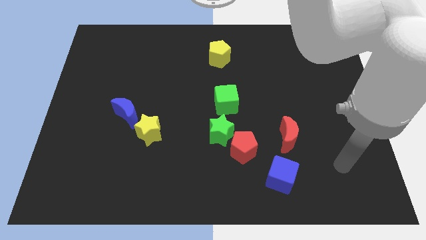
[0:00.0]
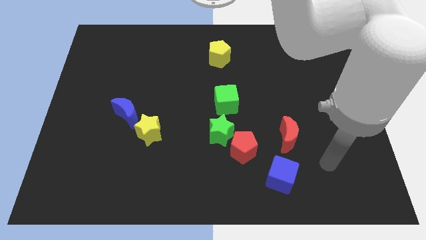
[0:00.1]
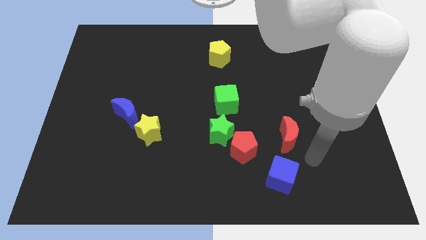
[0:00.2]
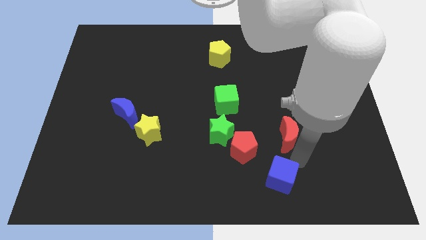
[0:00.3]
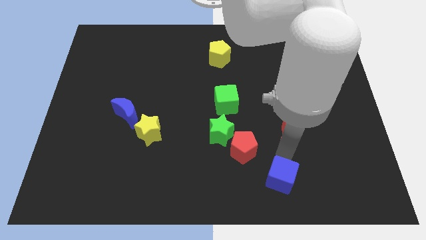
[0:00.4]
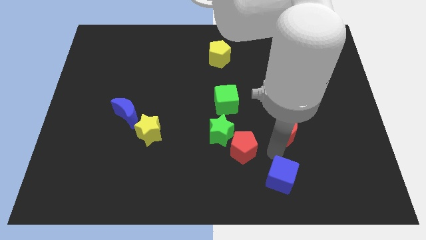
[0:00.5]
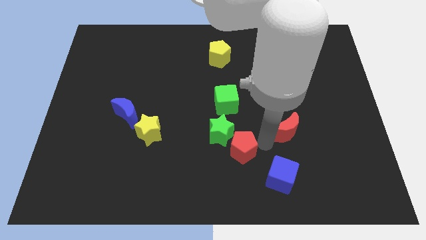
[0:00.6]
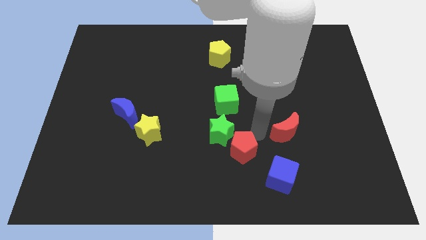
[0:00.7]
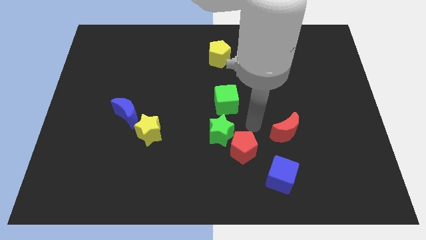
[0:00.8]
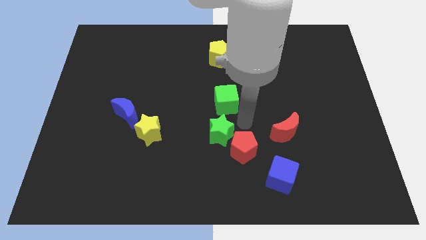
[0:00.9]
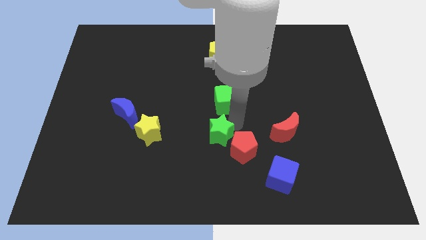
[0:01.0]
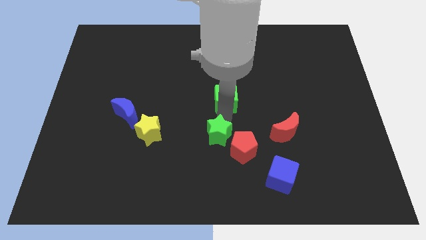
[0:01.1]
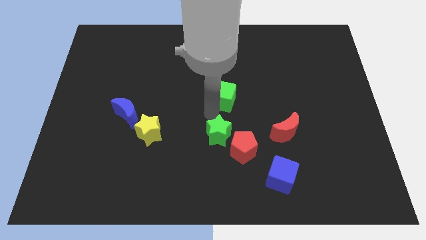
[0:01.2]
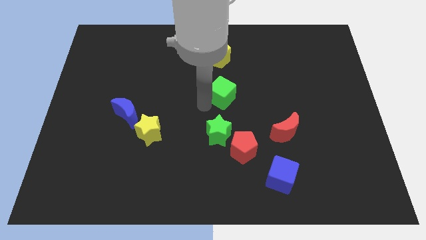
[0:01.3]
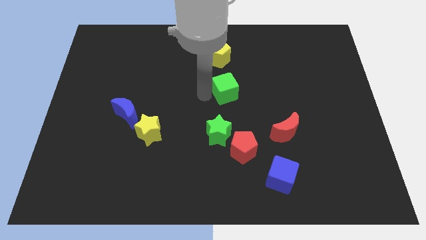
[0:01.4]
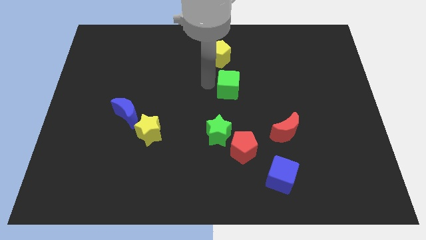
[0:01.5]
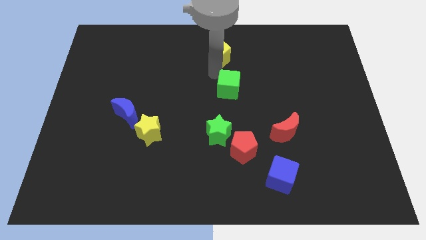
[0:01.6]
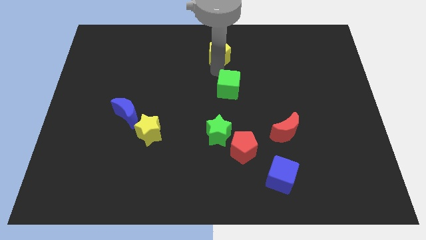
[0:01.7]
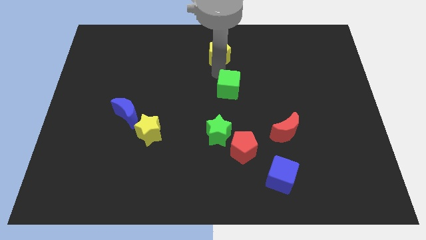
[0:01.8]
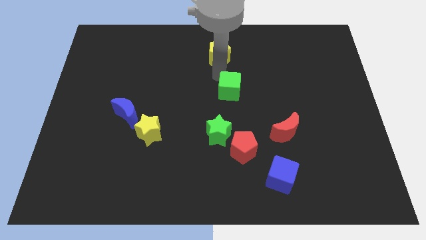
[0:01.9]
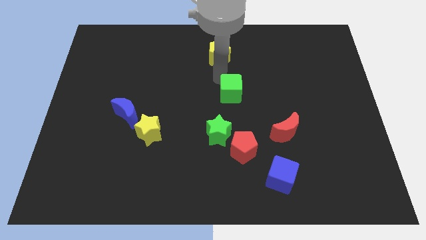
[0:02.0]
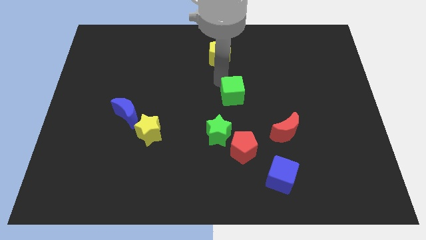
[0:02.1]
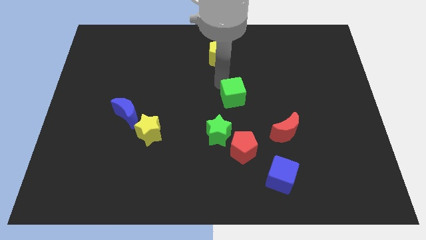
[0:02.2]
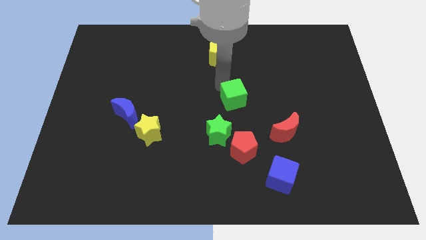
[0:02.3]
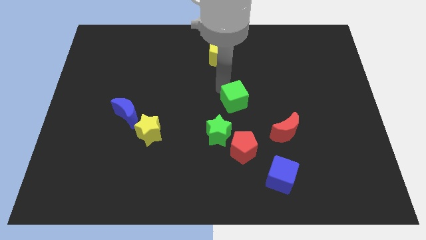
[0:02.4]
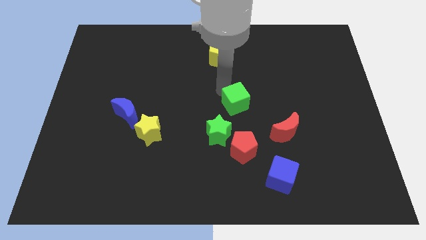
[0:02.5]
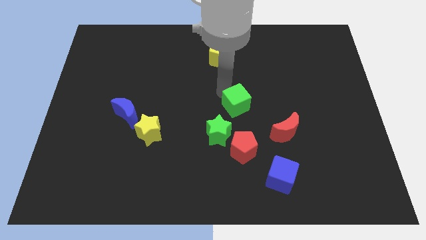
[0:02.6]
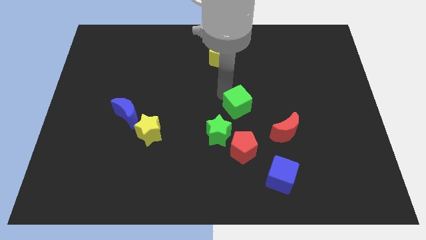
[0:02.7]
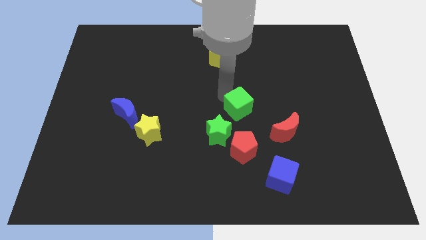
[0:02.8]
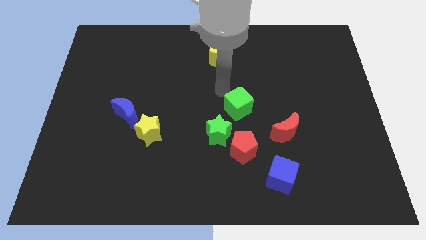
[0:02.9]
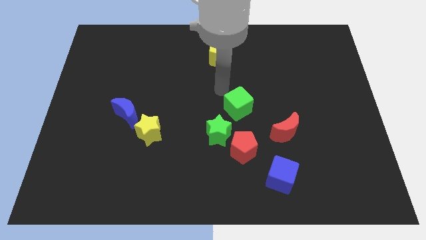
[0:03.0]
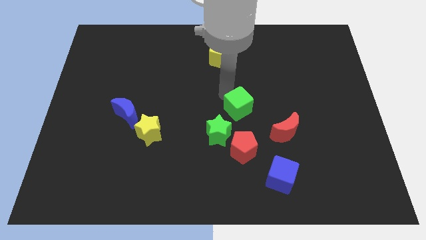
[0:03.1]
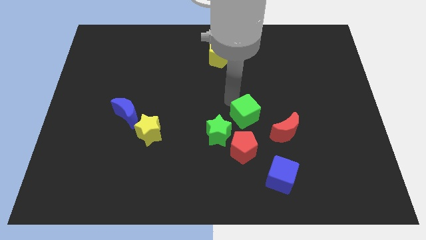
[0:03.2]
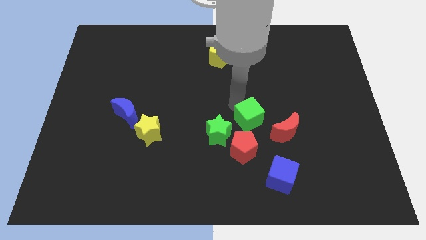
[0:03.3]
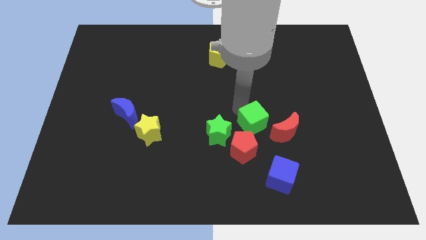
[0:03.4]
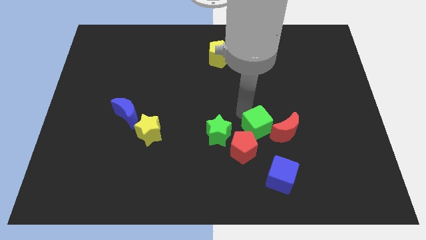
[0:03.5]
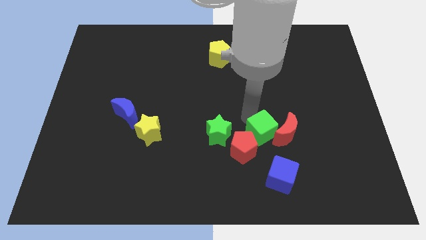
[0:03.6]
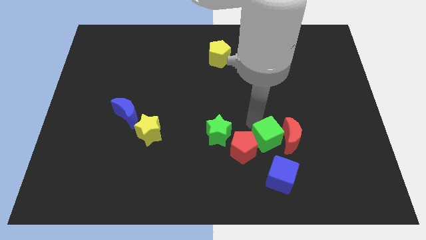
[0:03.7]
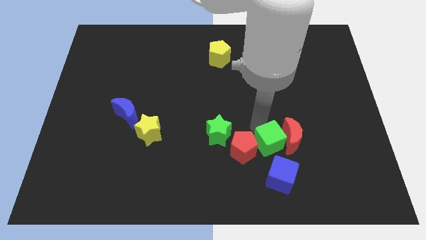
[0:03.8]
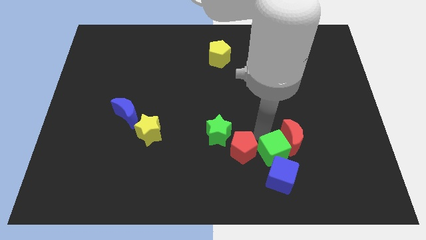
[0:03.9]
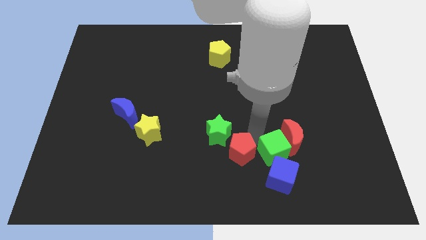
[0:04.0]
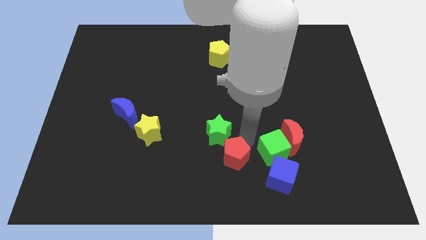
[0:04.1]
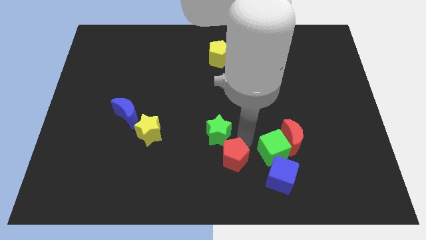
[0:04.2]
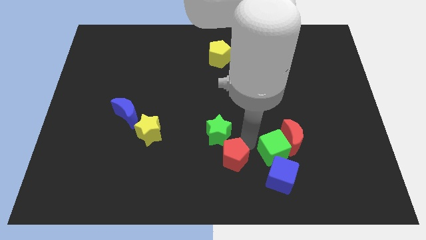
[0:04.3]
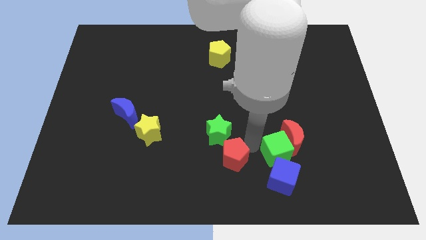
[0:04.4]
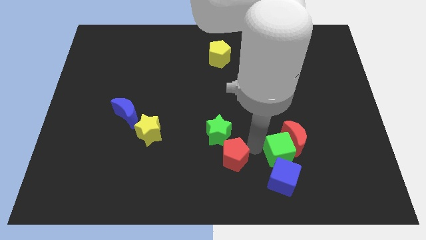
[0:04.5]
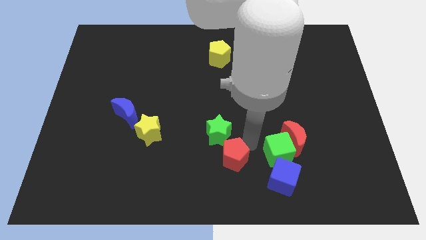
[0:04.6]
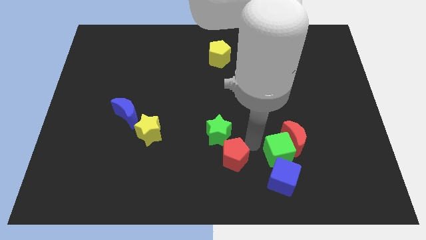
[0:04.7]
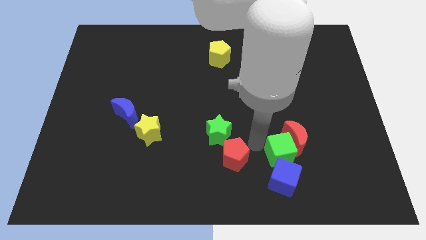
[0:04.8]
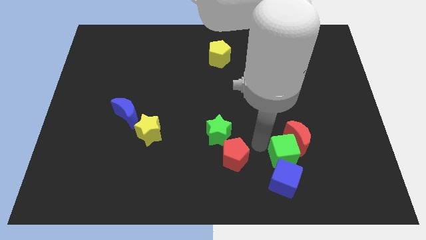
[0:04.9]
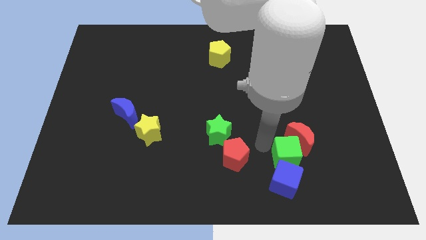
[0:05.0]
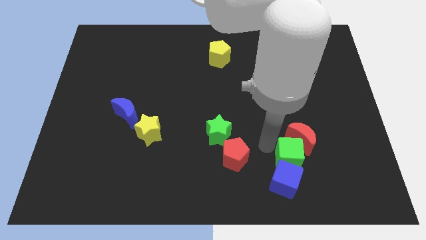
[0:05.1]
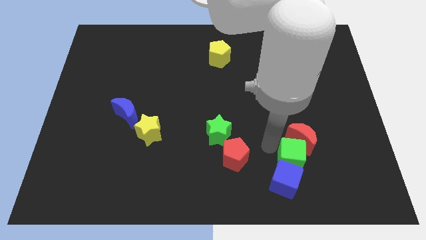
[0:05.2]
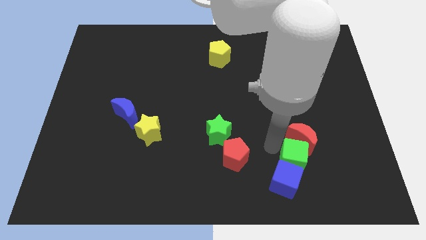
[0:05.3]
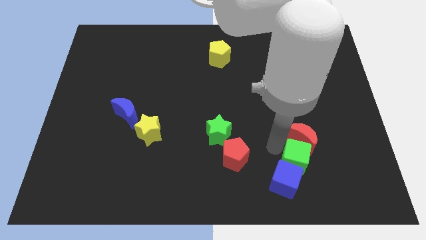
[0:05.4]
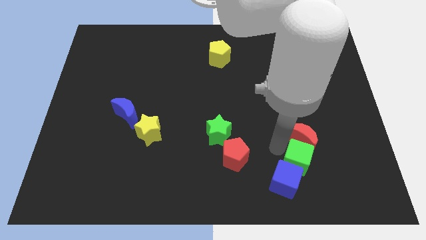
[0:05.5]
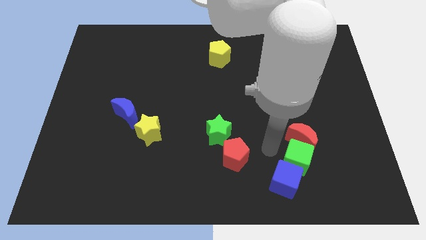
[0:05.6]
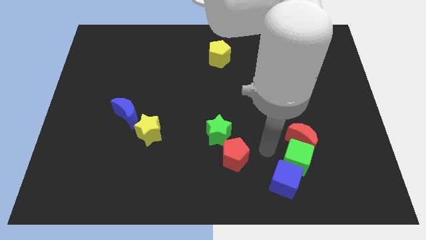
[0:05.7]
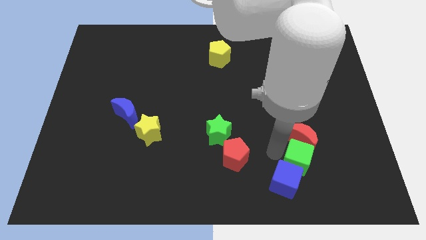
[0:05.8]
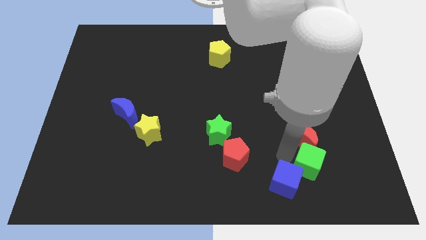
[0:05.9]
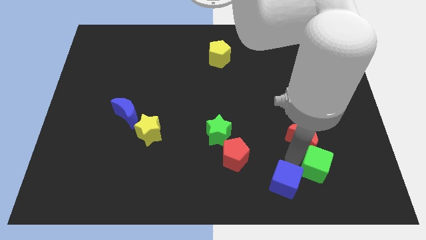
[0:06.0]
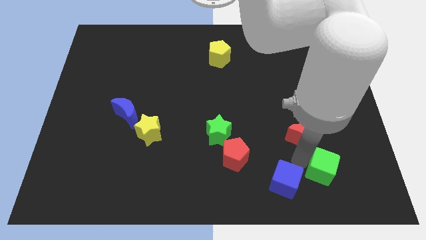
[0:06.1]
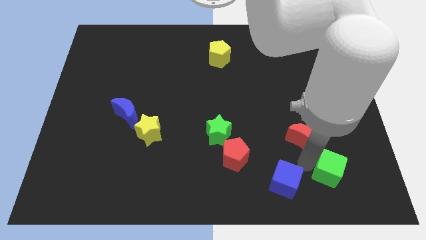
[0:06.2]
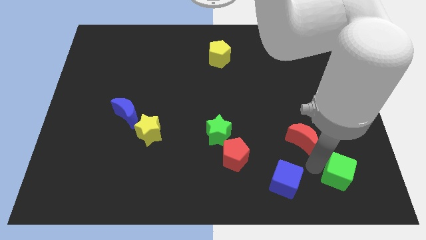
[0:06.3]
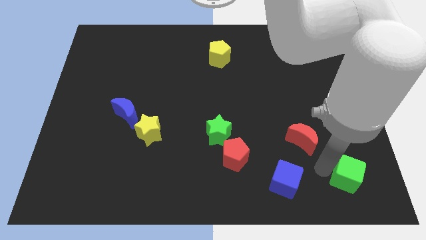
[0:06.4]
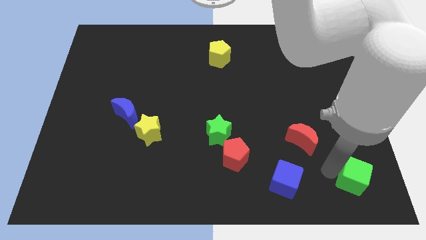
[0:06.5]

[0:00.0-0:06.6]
slide the green cube to the bottom right

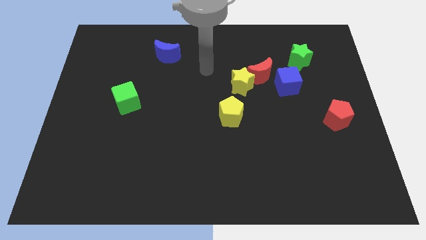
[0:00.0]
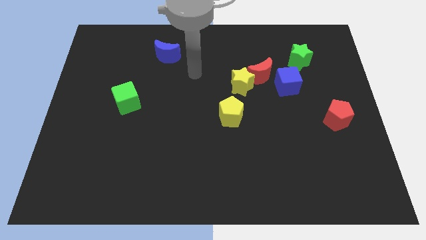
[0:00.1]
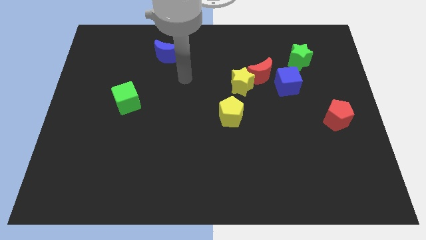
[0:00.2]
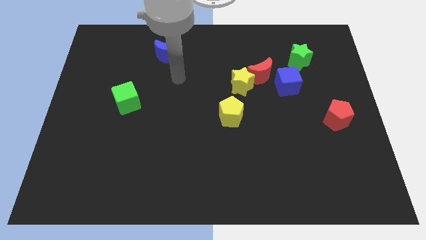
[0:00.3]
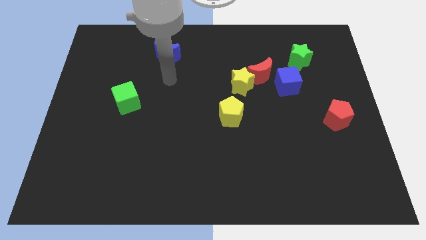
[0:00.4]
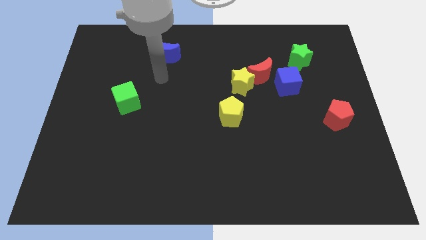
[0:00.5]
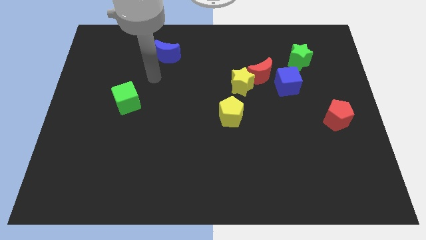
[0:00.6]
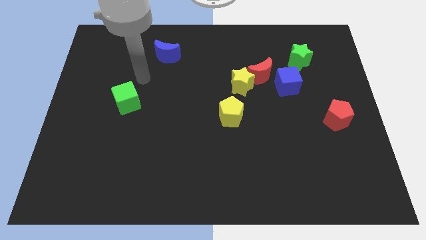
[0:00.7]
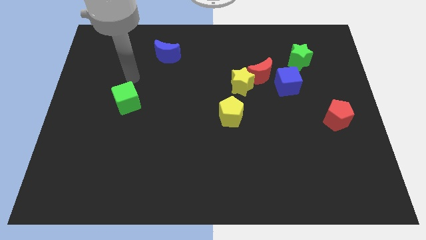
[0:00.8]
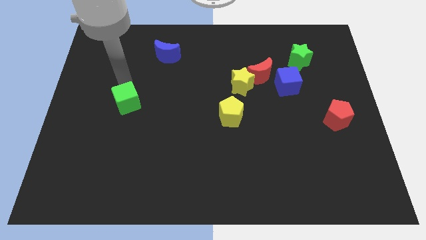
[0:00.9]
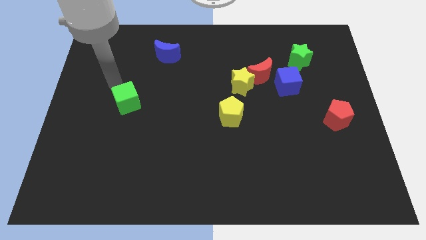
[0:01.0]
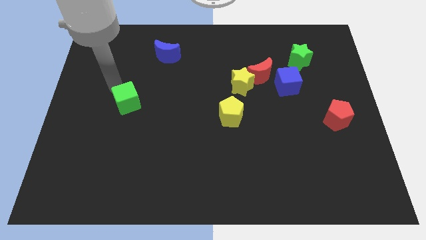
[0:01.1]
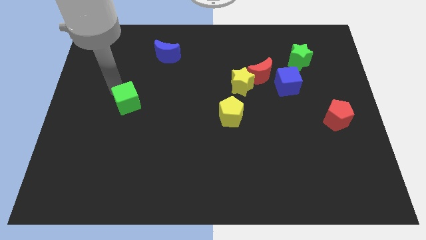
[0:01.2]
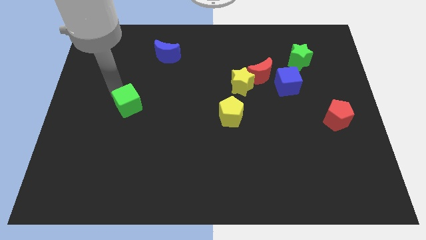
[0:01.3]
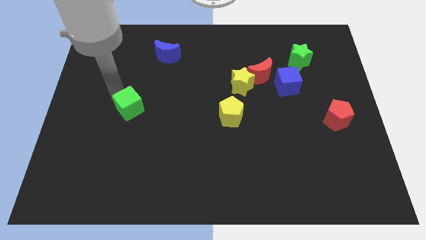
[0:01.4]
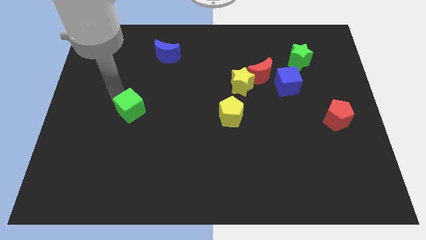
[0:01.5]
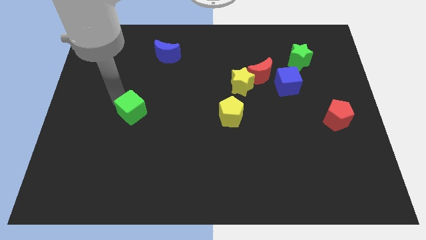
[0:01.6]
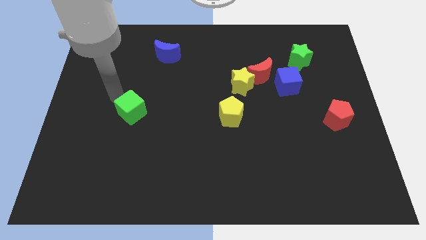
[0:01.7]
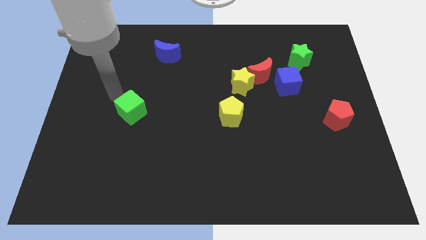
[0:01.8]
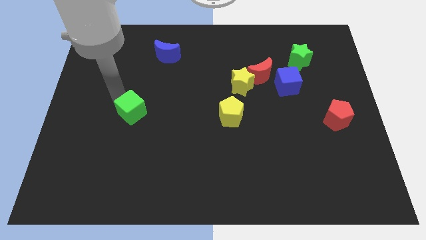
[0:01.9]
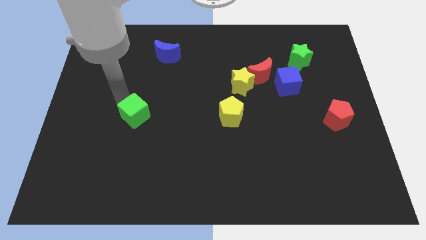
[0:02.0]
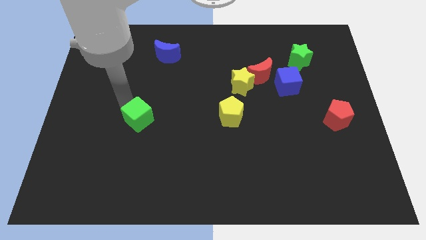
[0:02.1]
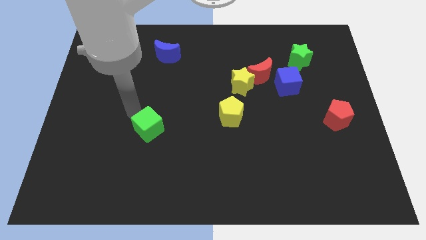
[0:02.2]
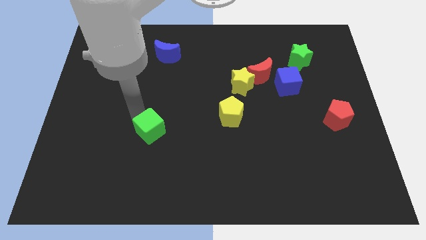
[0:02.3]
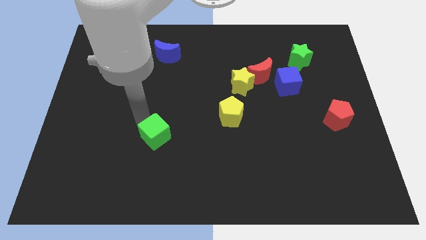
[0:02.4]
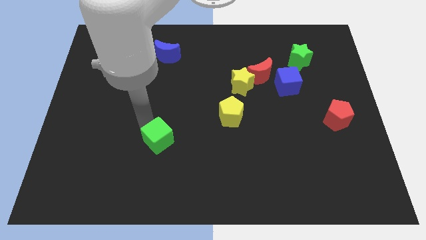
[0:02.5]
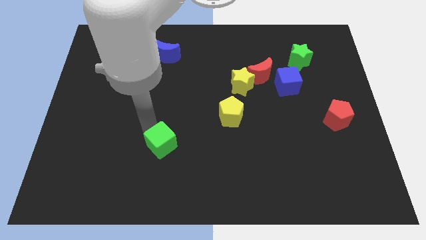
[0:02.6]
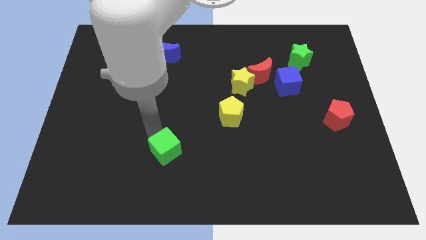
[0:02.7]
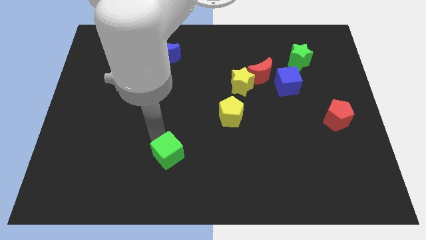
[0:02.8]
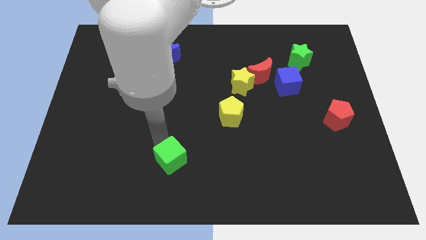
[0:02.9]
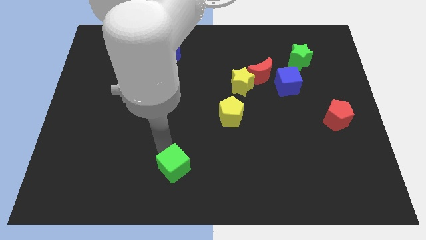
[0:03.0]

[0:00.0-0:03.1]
move the green cube to the bottom
